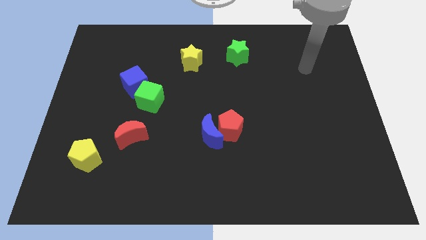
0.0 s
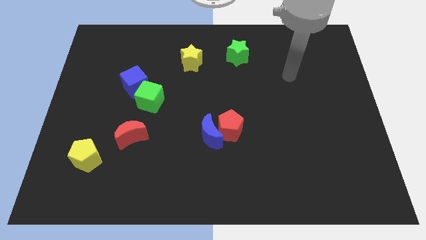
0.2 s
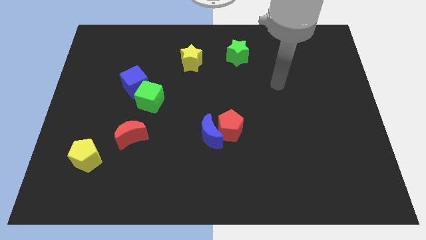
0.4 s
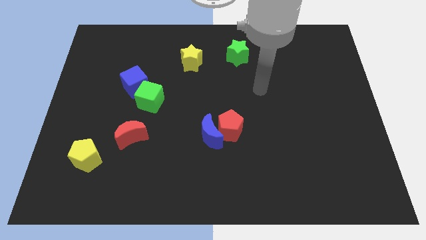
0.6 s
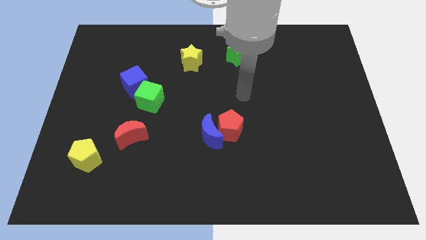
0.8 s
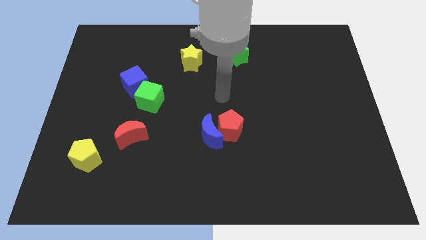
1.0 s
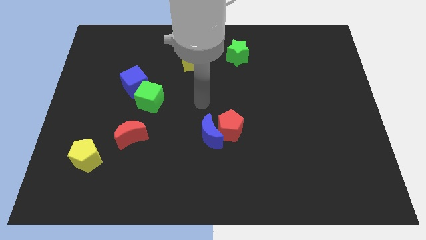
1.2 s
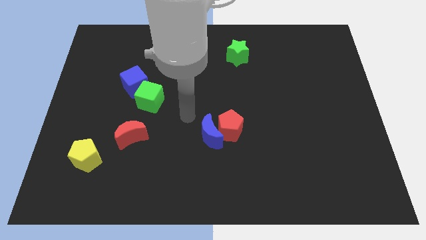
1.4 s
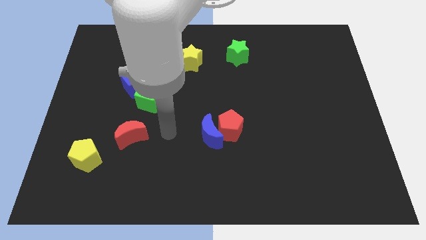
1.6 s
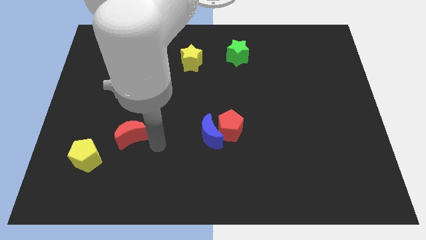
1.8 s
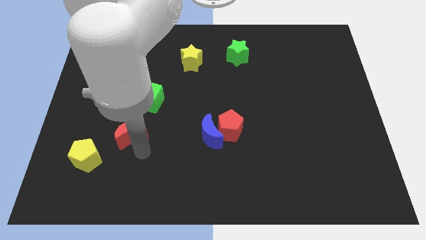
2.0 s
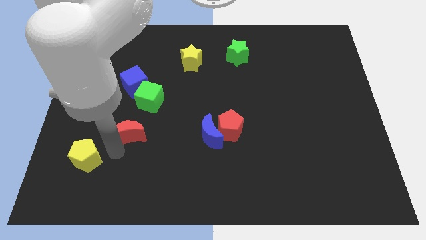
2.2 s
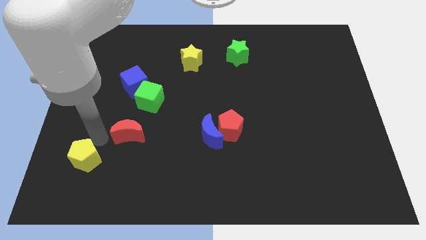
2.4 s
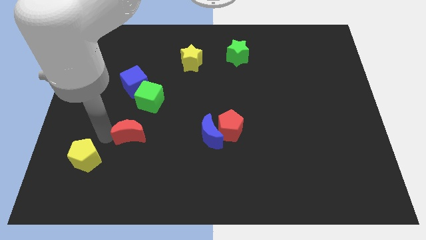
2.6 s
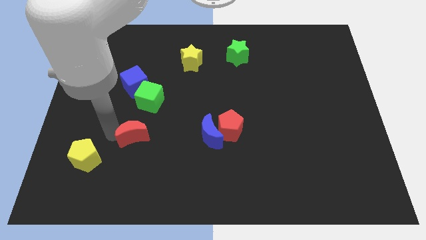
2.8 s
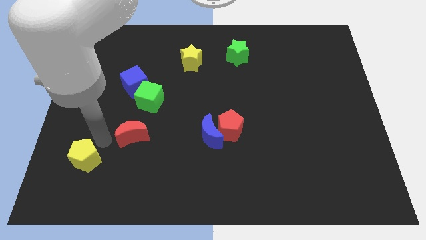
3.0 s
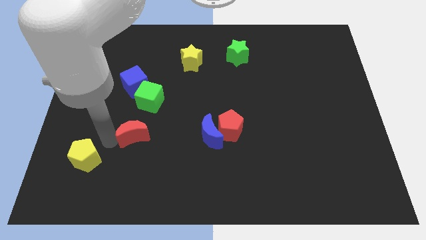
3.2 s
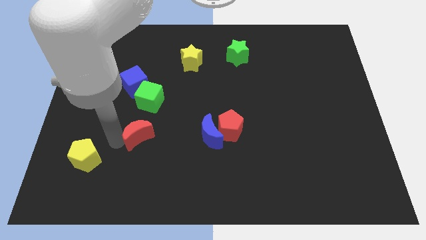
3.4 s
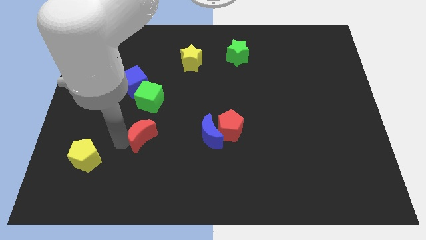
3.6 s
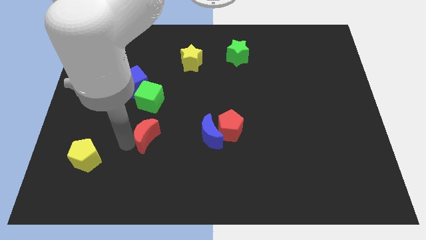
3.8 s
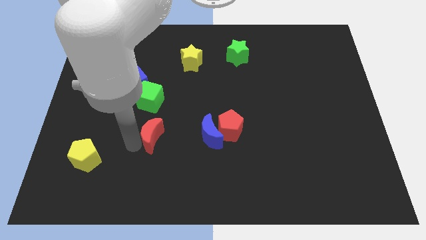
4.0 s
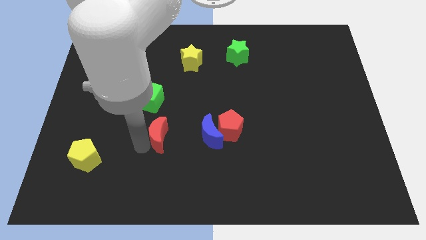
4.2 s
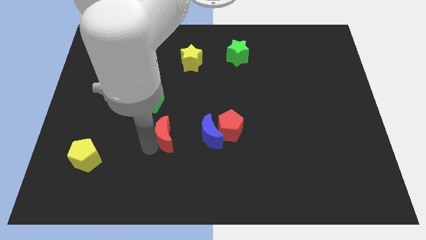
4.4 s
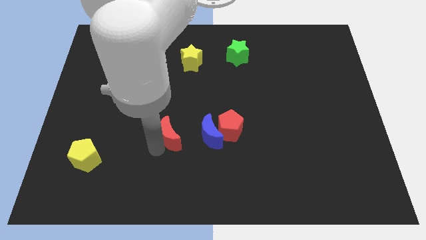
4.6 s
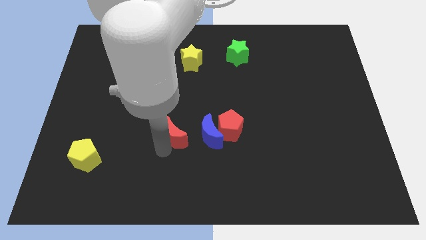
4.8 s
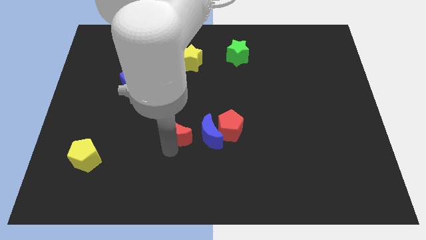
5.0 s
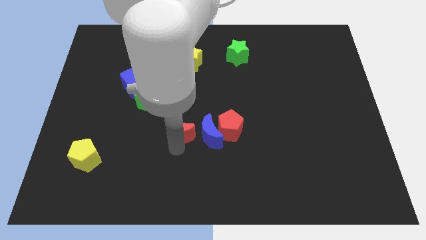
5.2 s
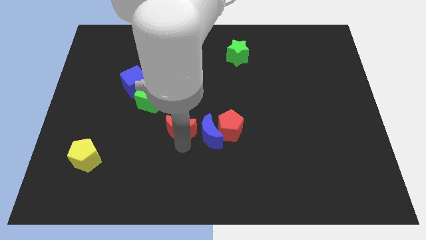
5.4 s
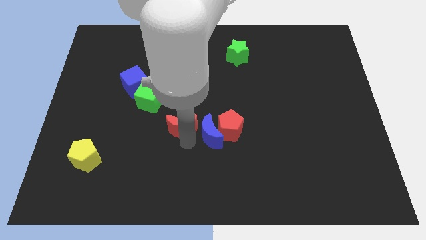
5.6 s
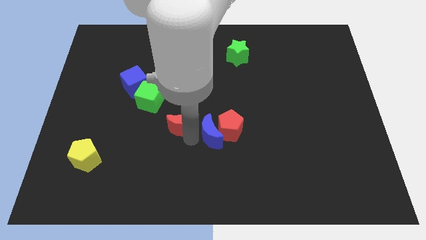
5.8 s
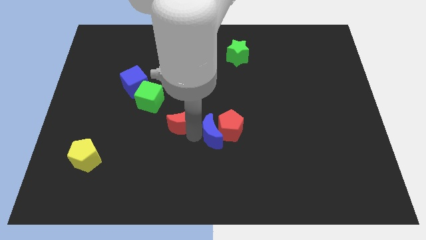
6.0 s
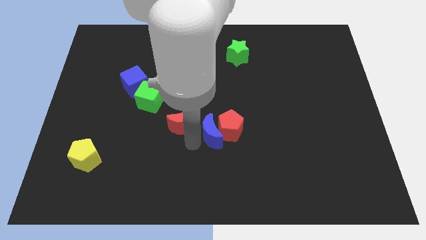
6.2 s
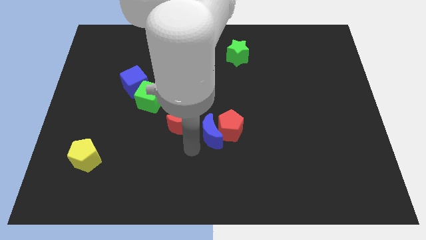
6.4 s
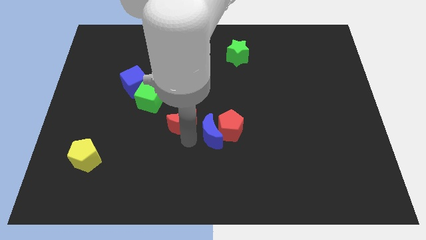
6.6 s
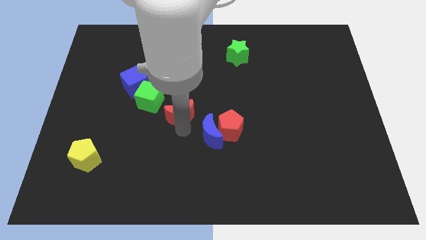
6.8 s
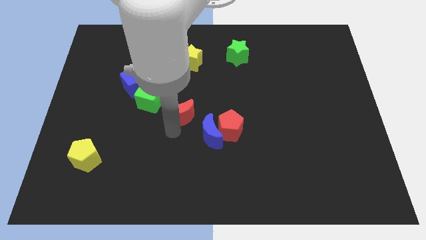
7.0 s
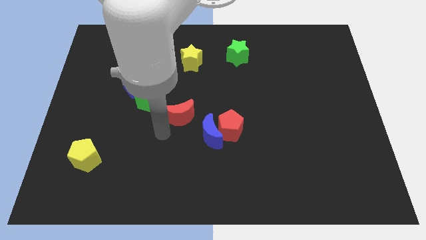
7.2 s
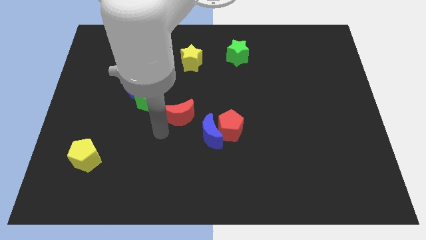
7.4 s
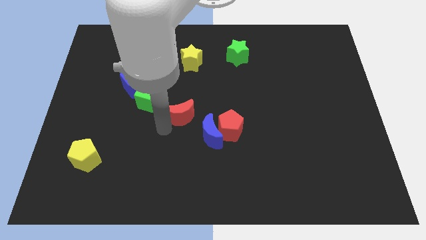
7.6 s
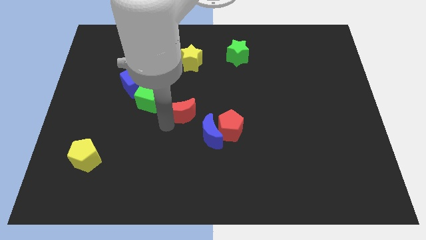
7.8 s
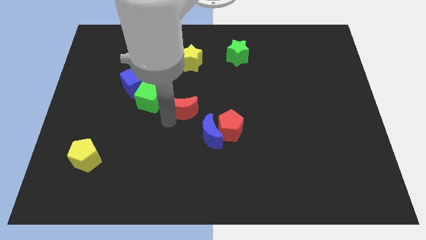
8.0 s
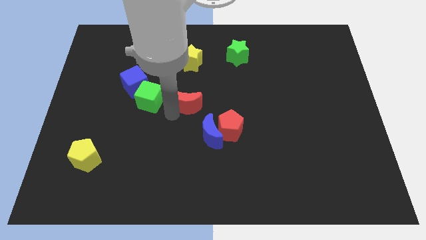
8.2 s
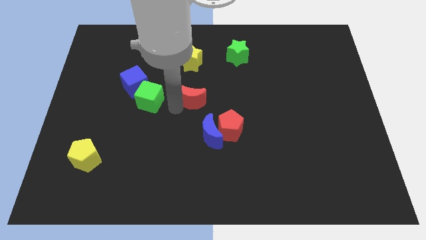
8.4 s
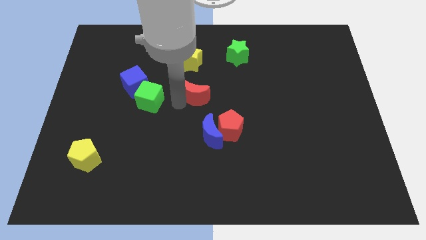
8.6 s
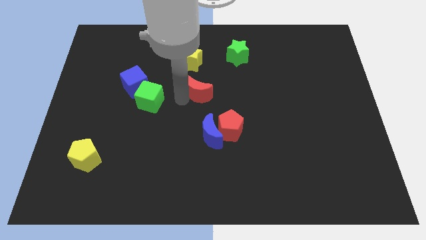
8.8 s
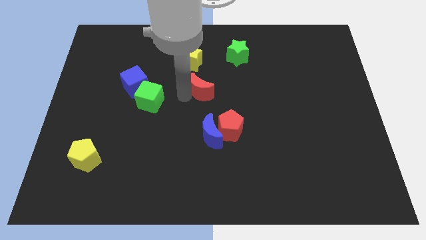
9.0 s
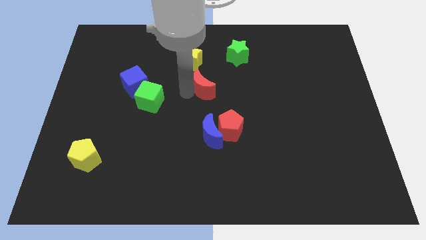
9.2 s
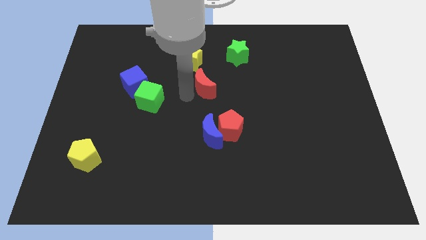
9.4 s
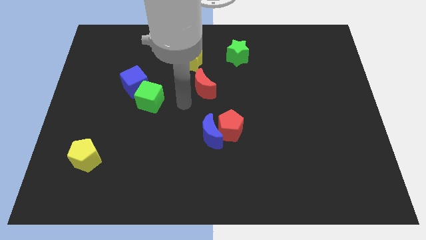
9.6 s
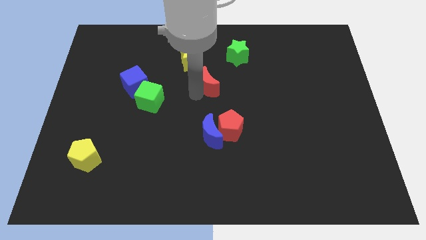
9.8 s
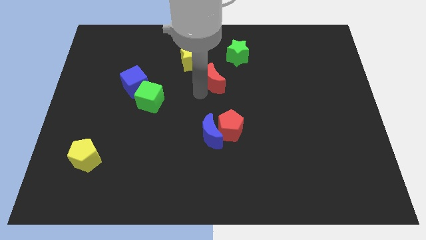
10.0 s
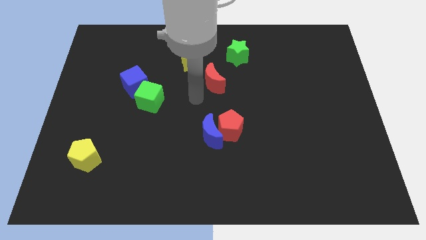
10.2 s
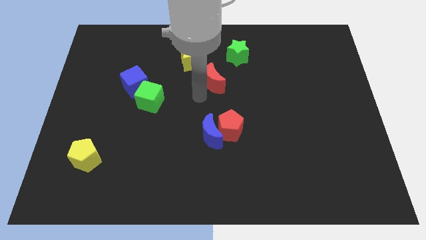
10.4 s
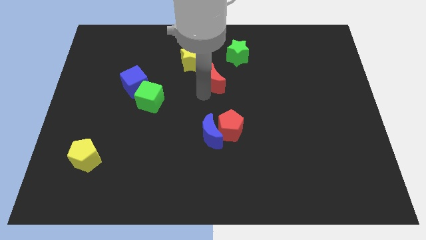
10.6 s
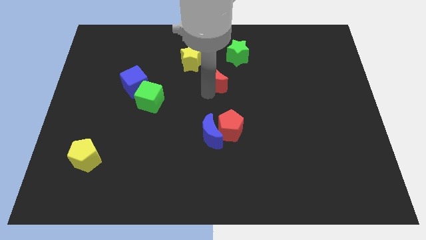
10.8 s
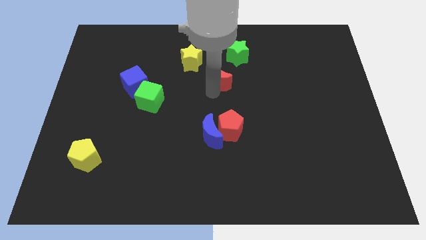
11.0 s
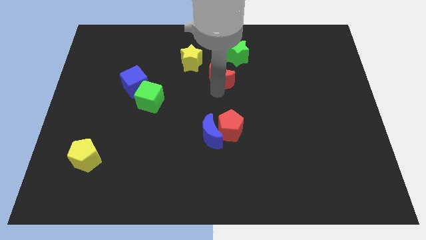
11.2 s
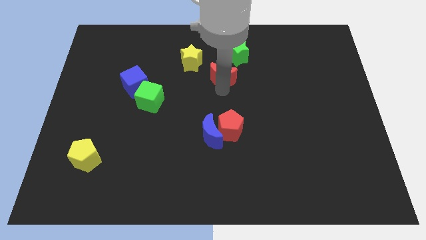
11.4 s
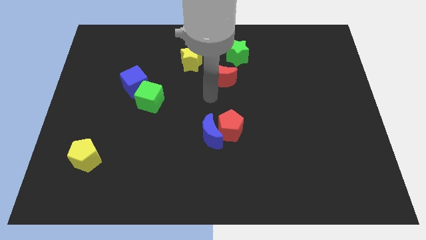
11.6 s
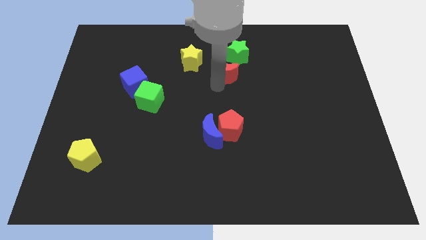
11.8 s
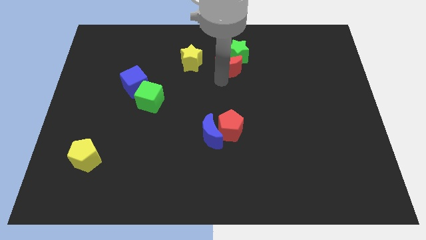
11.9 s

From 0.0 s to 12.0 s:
move the red moon close to the green star

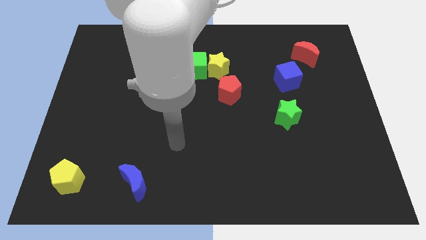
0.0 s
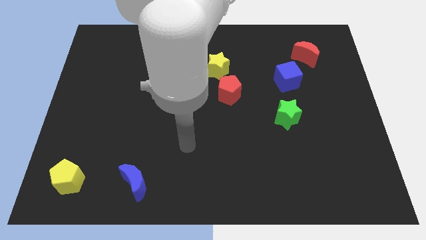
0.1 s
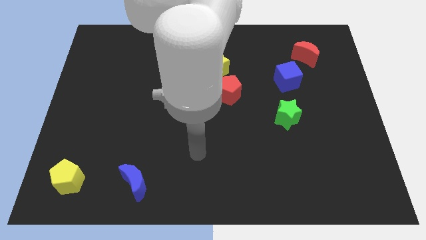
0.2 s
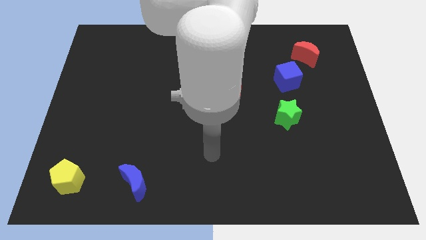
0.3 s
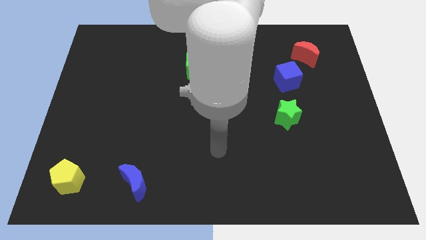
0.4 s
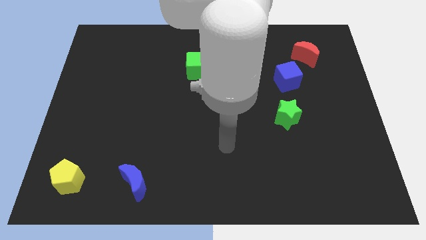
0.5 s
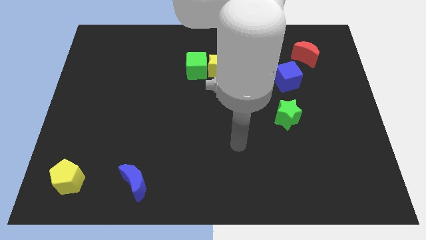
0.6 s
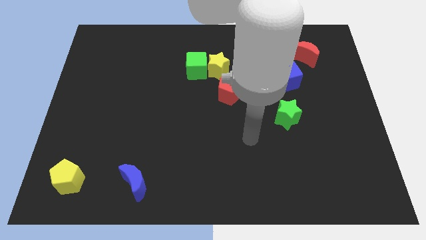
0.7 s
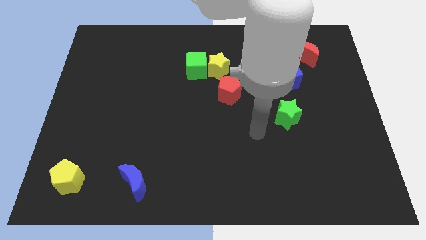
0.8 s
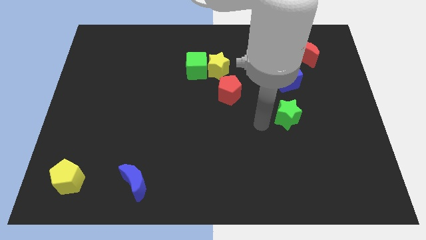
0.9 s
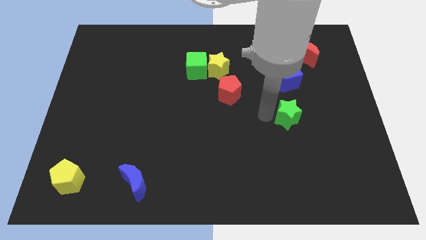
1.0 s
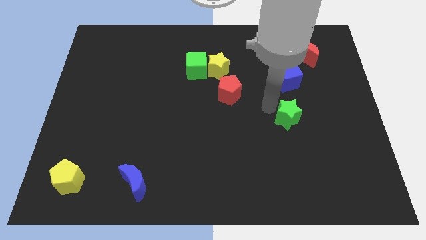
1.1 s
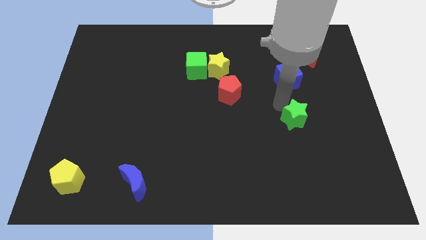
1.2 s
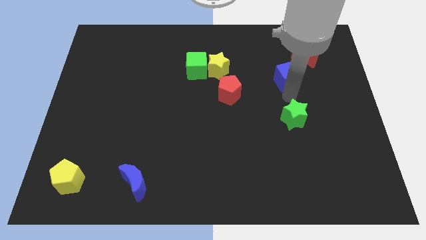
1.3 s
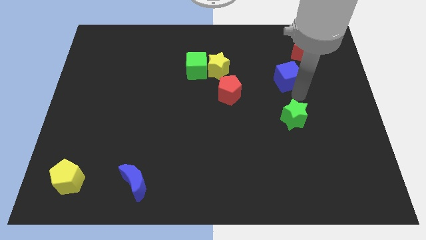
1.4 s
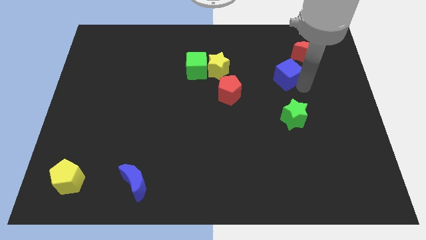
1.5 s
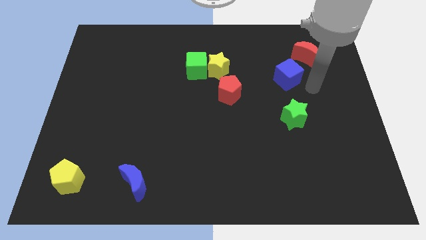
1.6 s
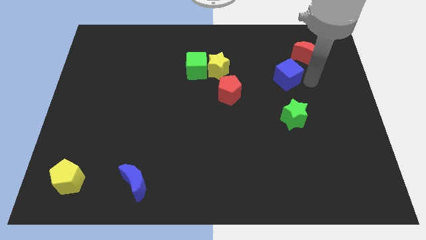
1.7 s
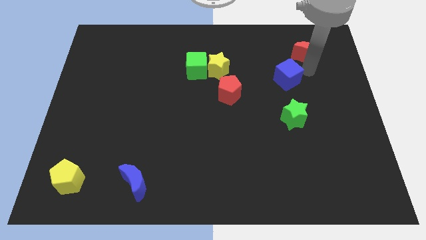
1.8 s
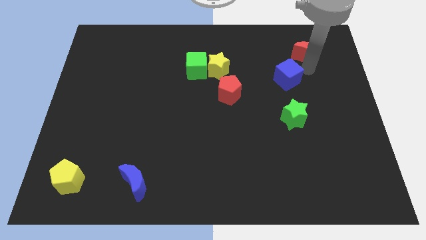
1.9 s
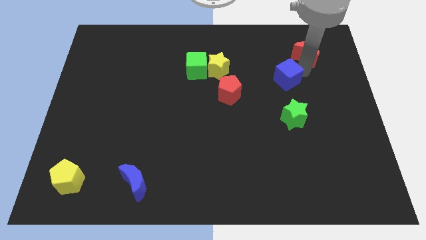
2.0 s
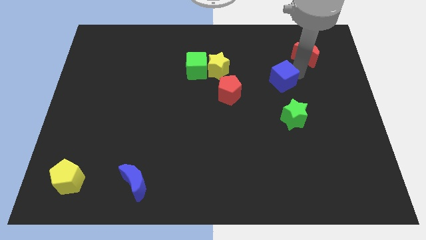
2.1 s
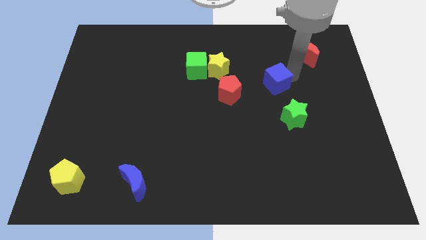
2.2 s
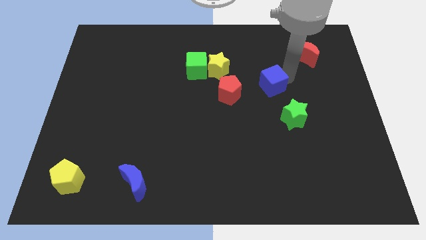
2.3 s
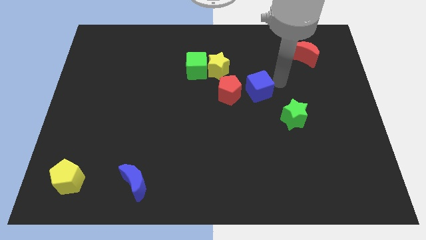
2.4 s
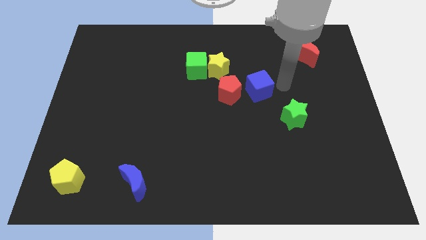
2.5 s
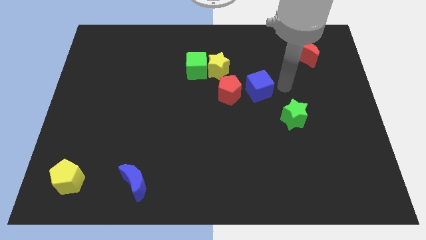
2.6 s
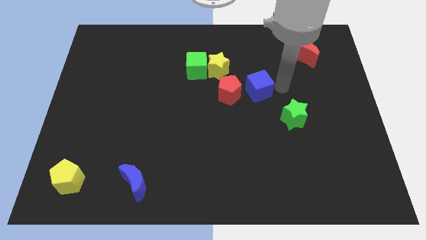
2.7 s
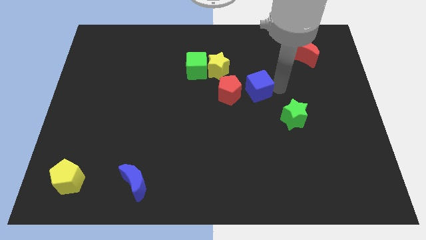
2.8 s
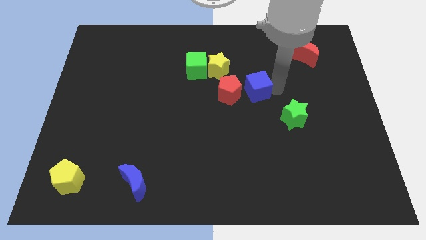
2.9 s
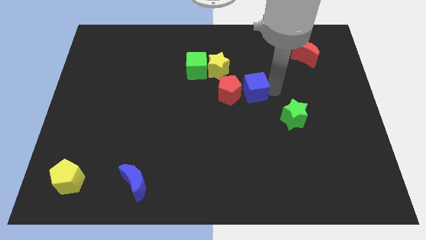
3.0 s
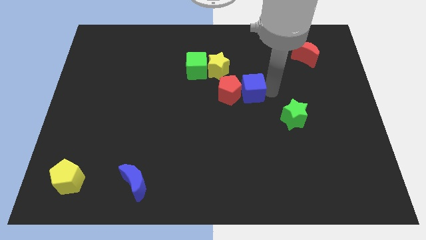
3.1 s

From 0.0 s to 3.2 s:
push the blue cube towards the red pentagon
